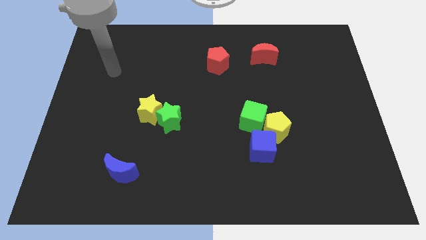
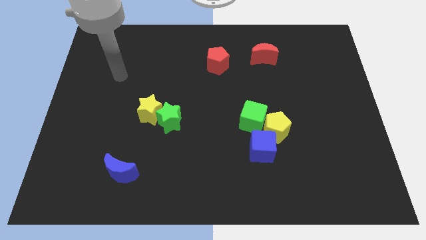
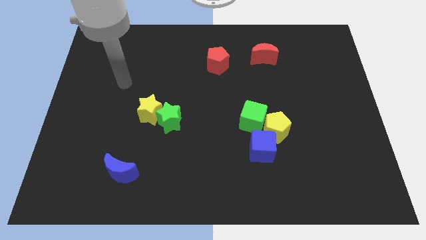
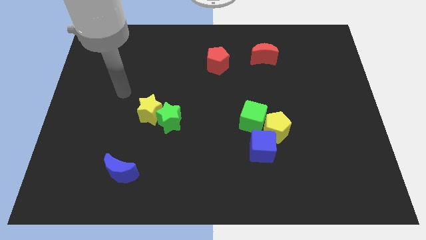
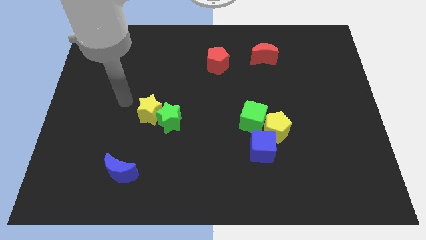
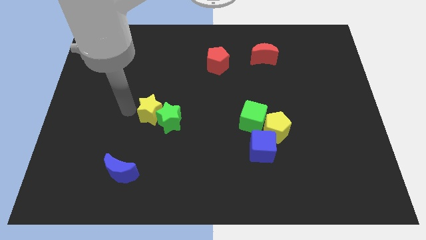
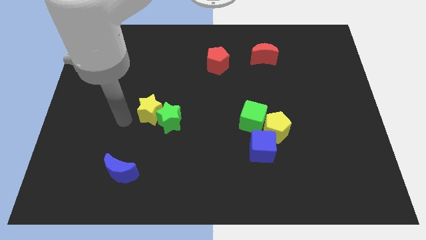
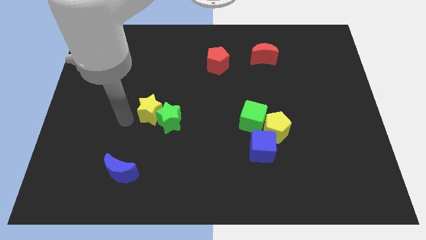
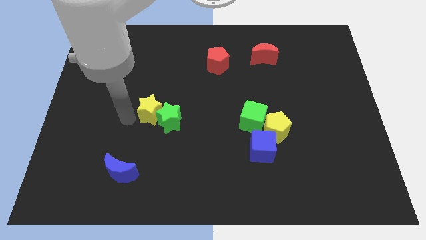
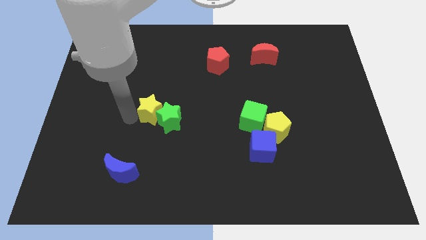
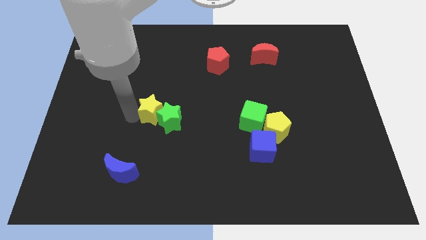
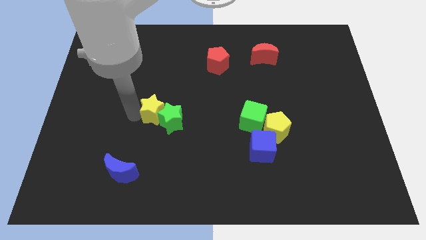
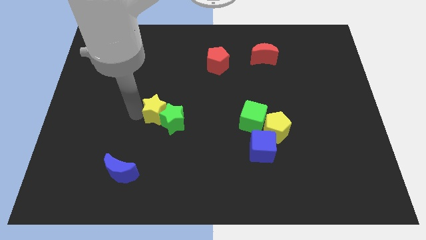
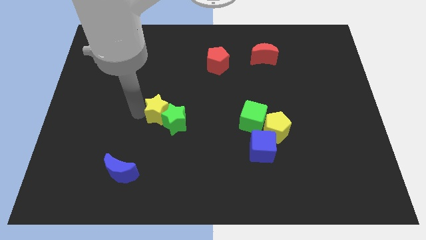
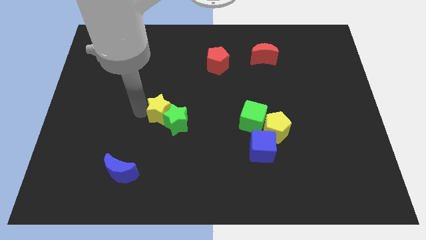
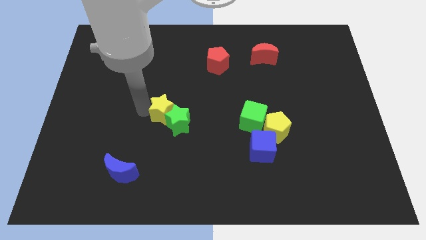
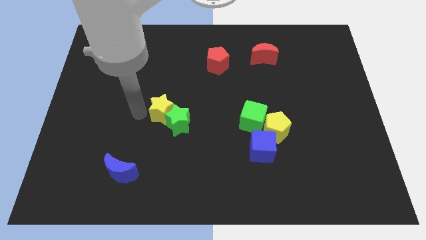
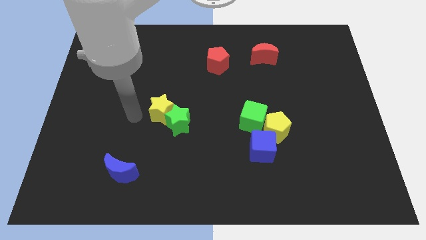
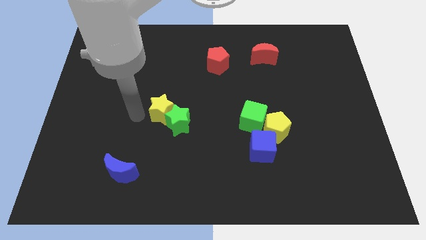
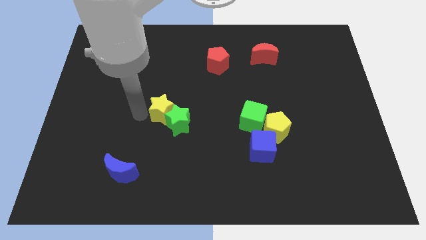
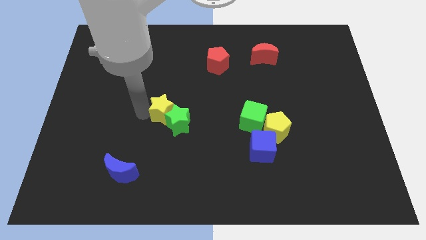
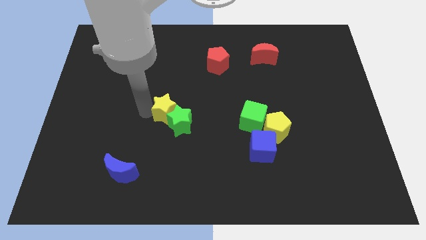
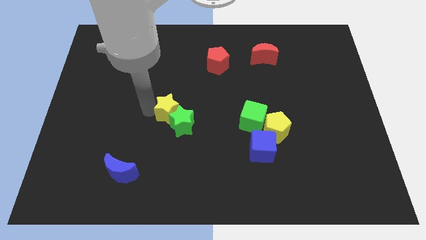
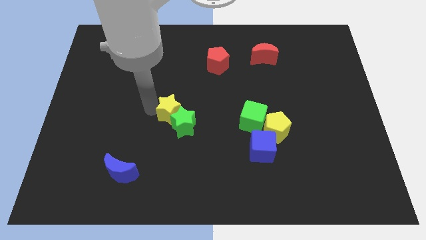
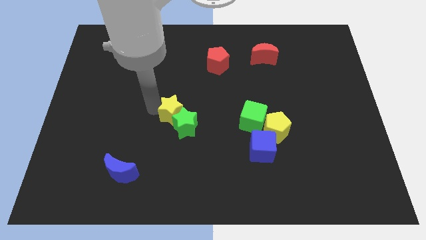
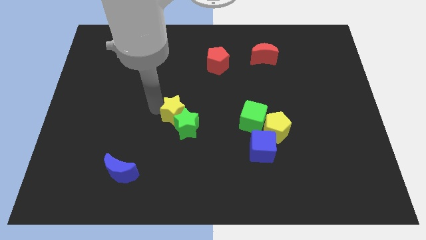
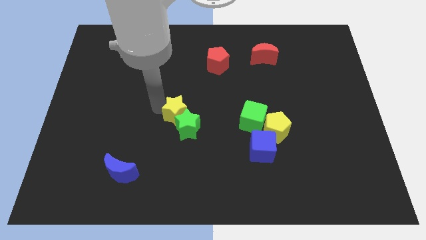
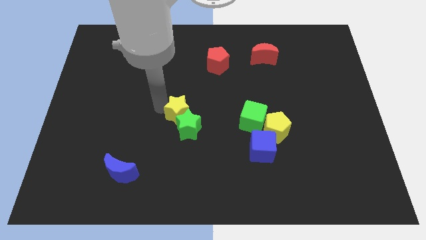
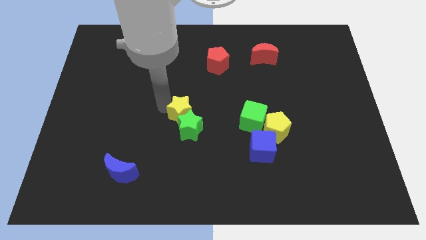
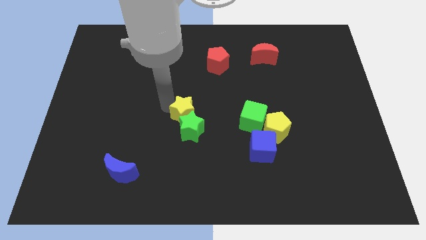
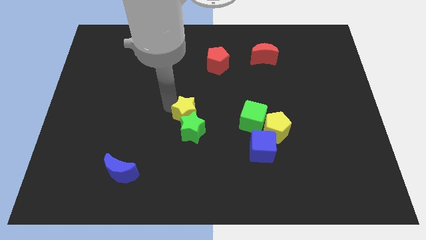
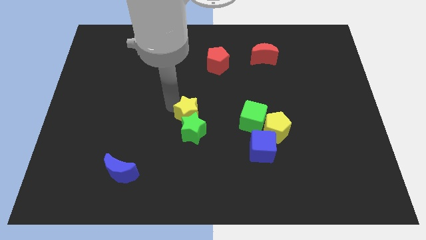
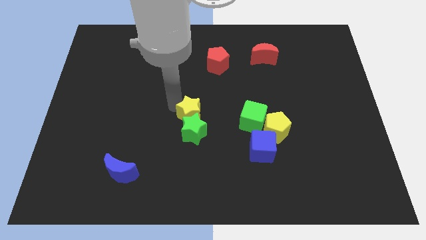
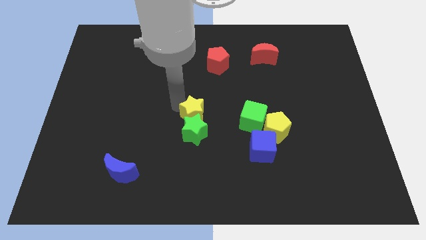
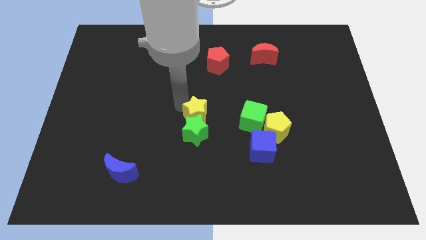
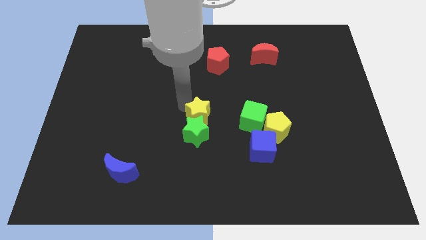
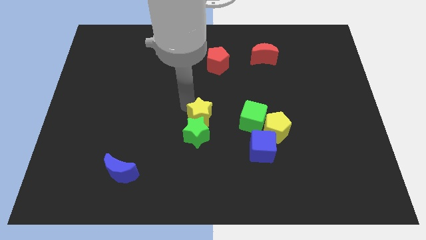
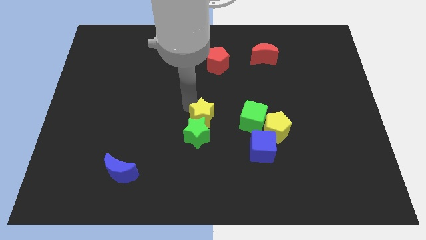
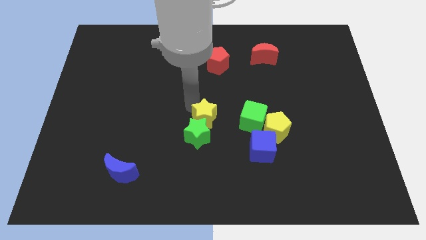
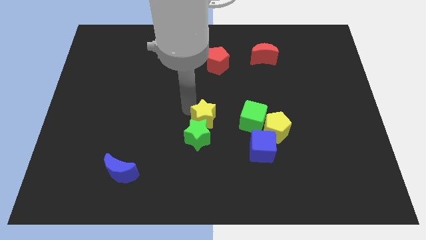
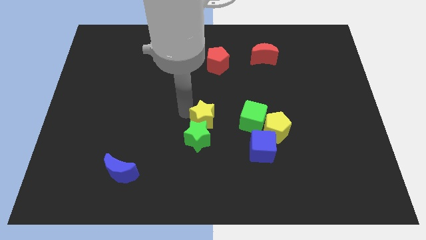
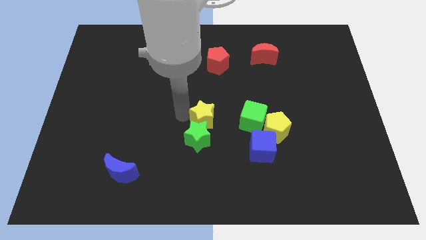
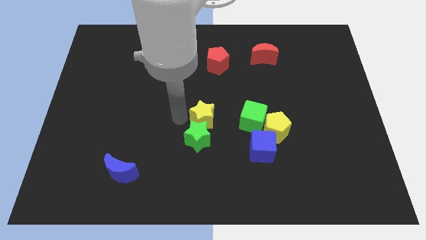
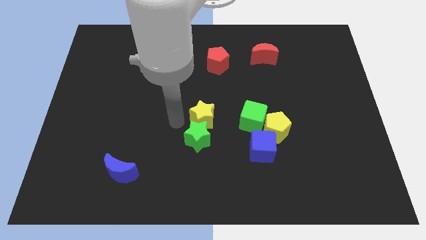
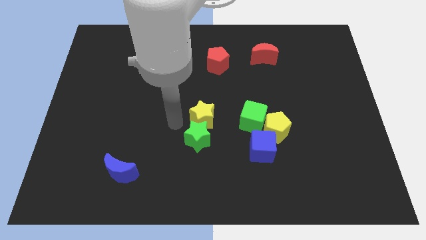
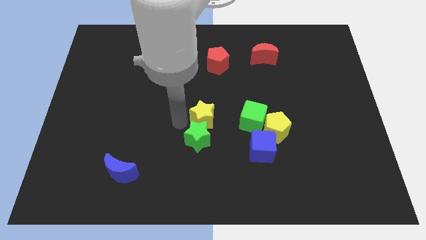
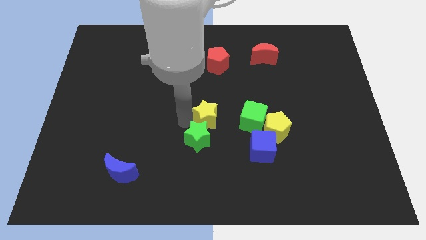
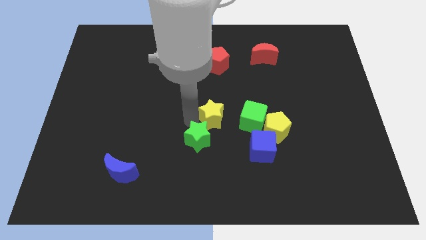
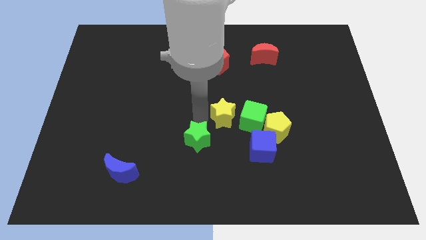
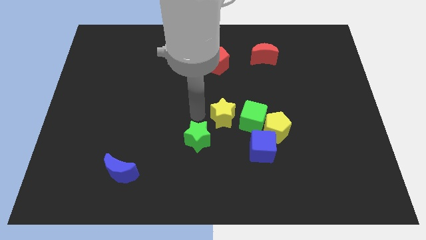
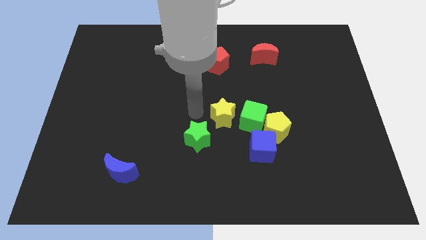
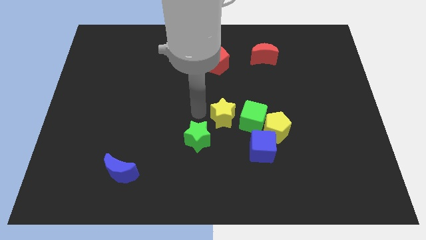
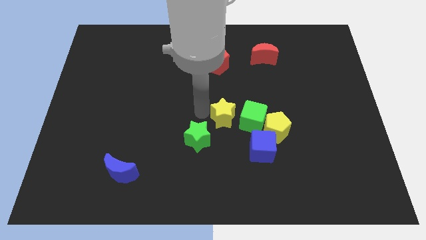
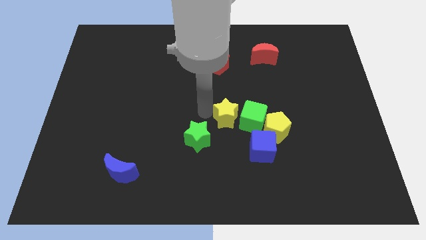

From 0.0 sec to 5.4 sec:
move the yellow star towards the green cube

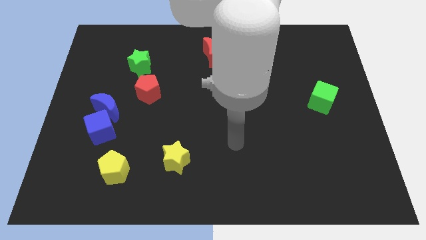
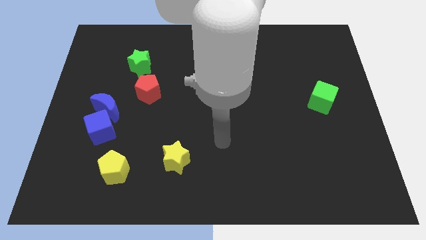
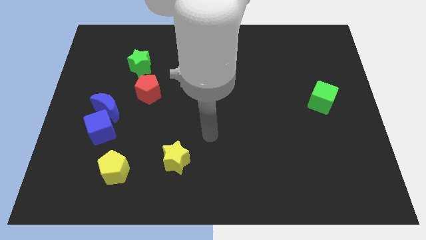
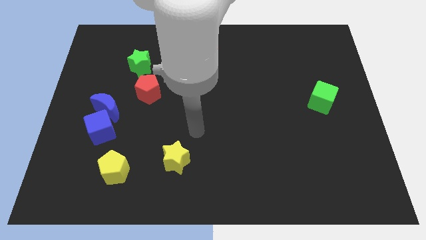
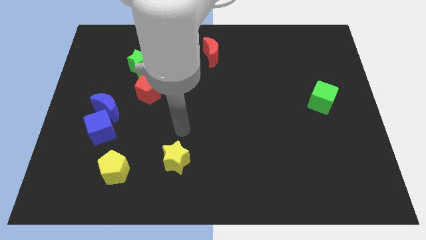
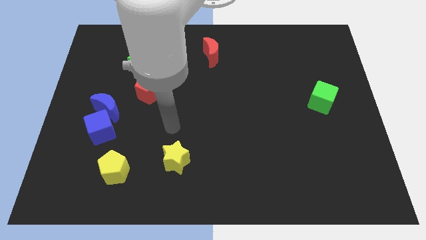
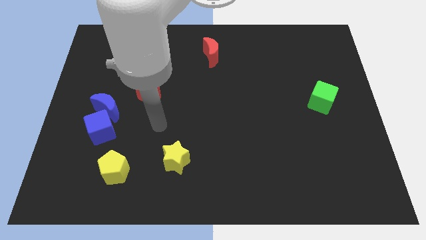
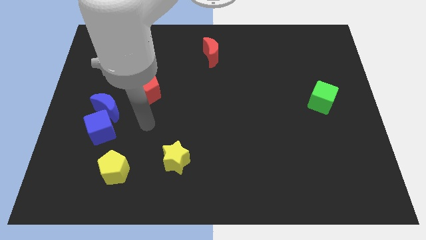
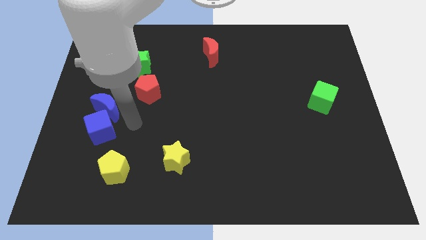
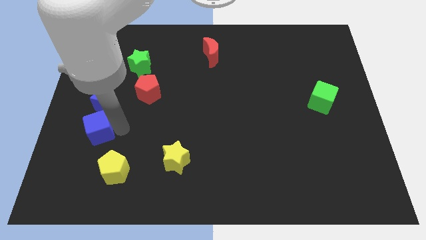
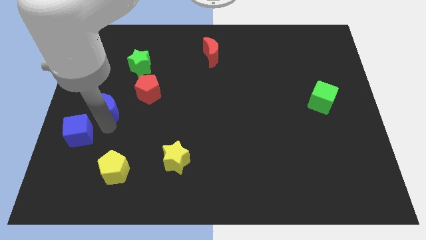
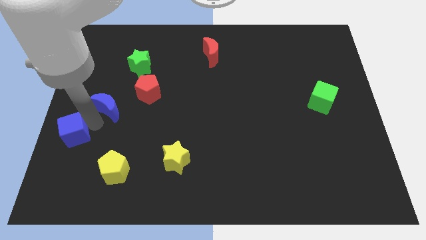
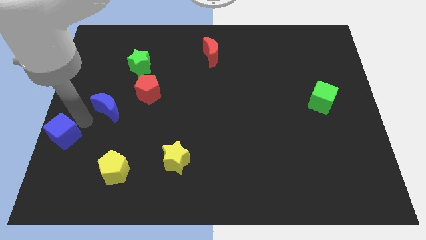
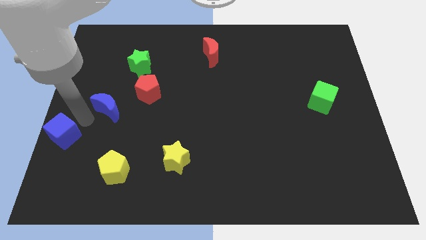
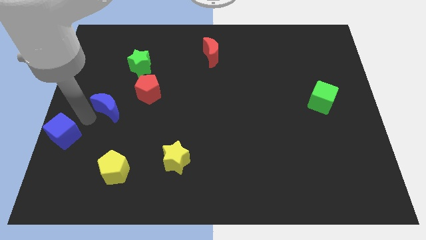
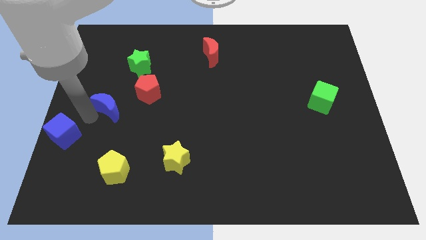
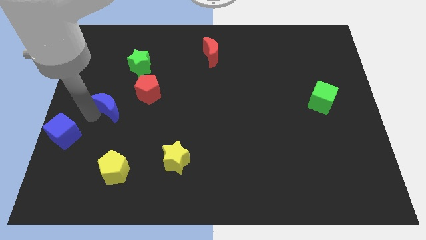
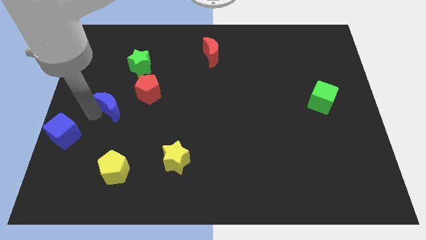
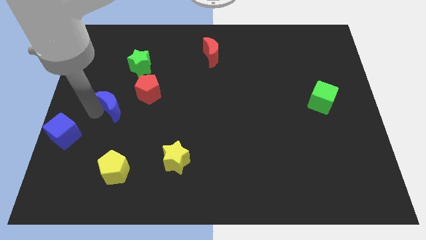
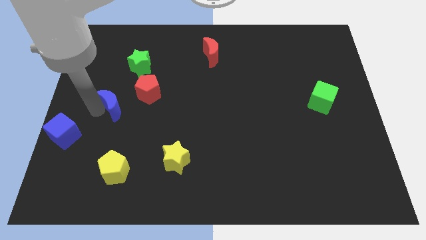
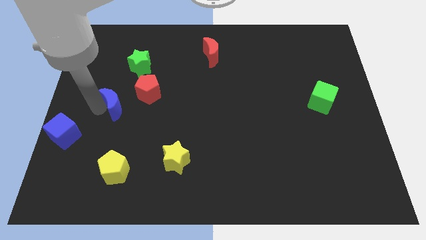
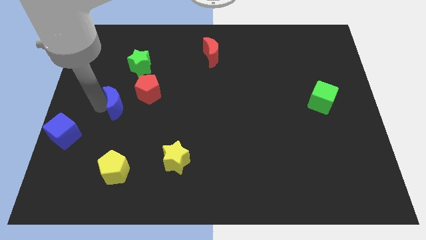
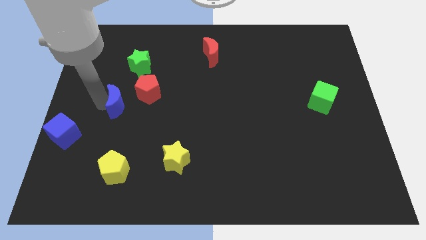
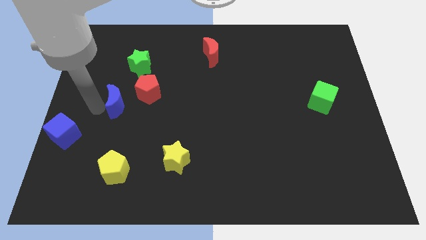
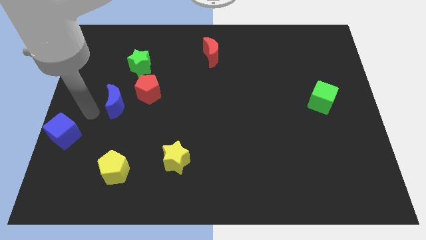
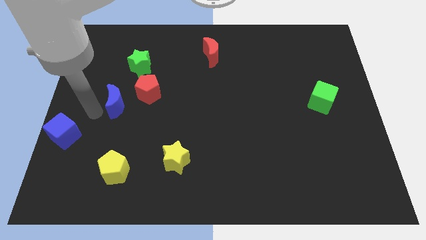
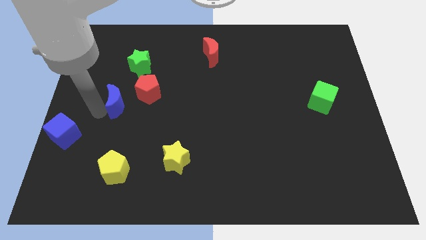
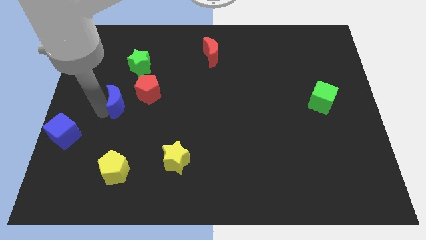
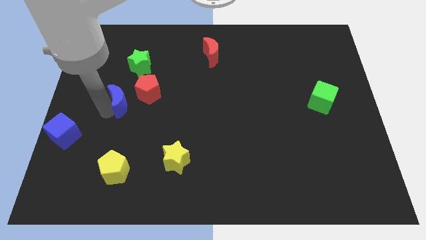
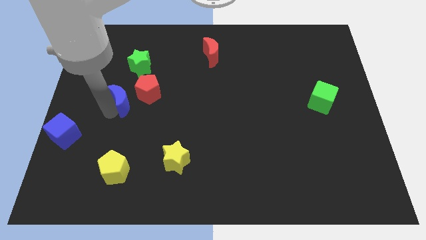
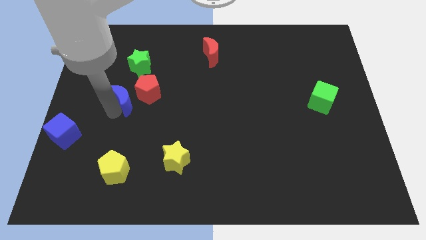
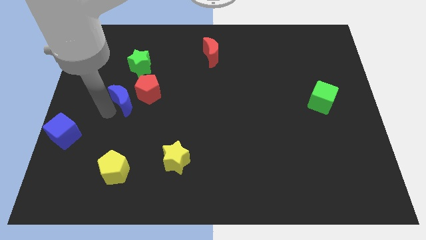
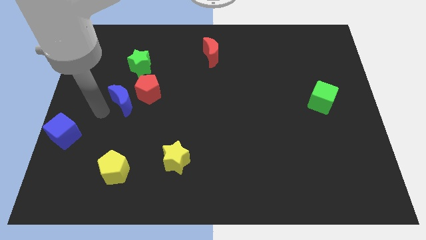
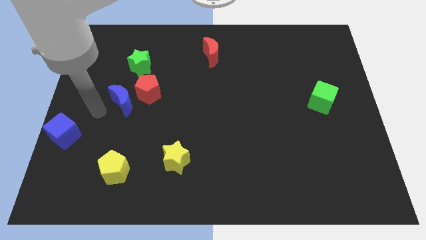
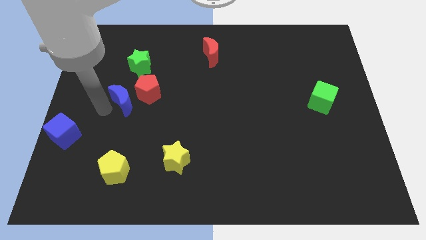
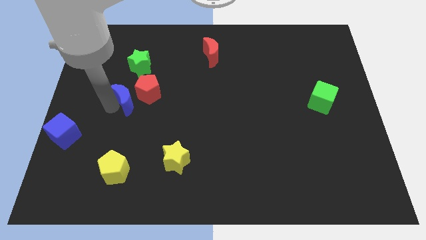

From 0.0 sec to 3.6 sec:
push the blue moon to the red pentagon
